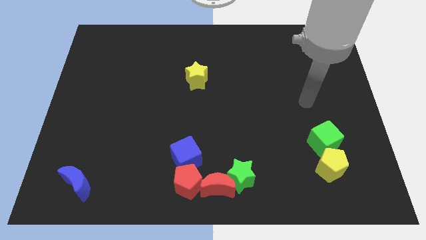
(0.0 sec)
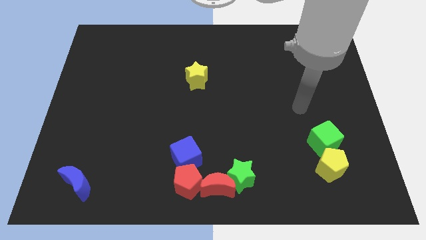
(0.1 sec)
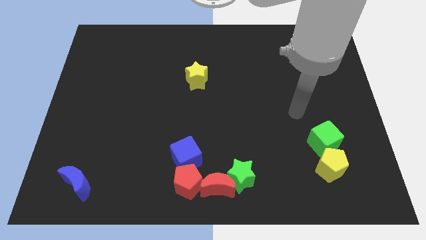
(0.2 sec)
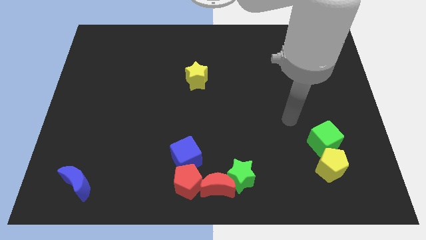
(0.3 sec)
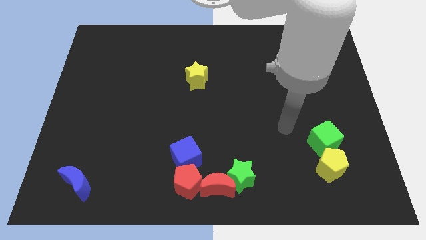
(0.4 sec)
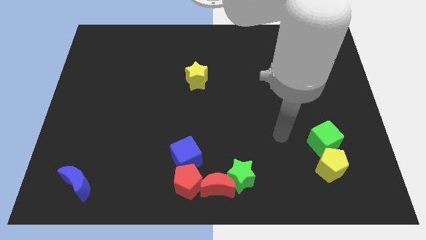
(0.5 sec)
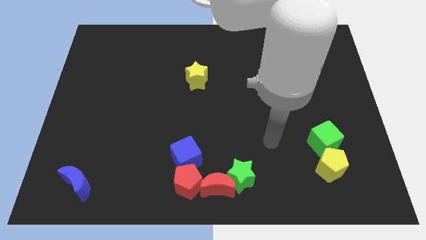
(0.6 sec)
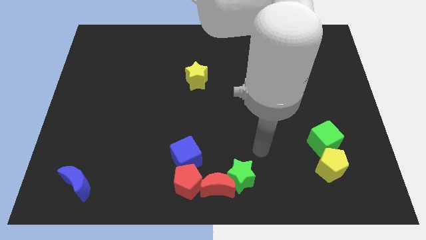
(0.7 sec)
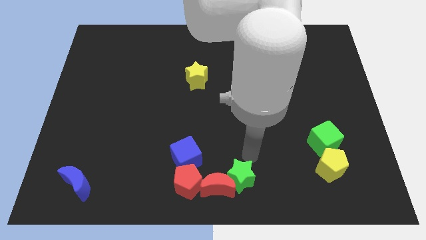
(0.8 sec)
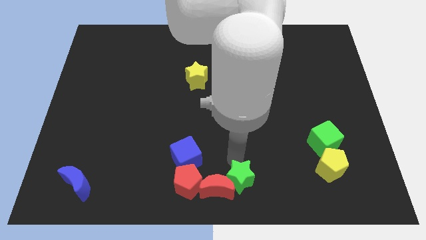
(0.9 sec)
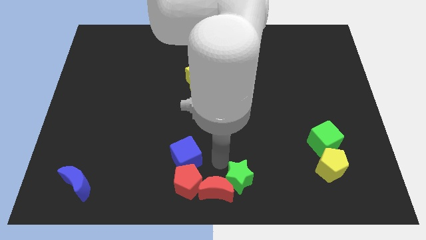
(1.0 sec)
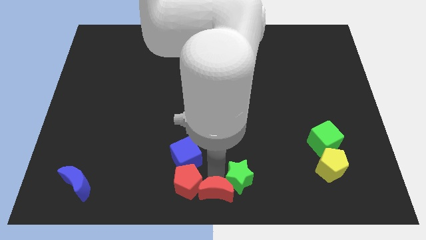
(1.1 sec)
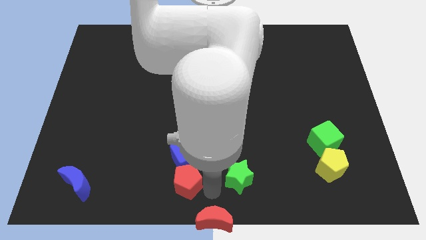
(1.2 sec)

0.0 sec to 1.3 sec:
separate the green star from the red moon

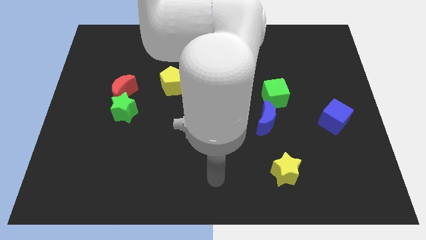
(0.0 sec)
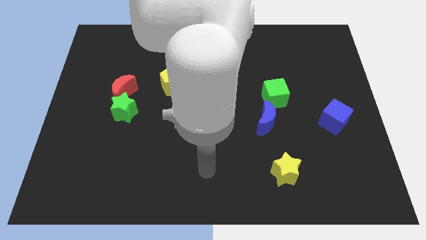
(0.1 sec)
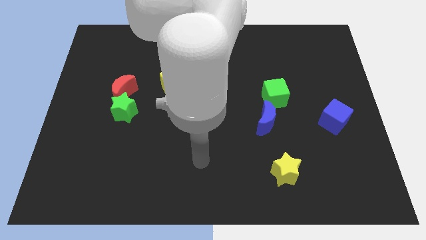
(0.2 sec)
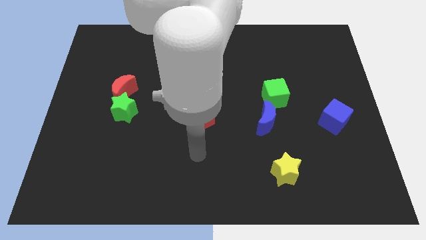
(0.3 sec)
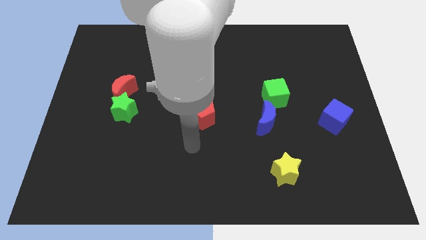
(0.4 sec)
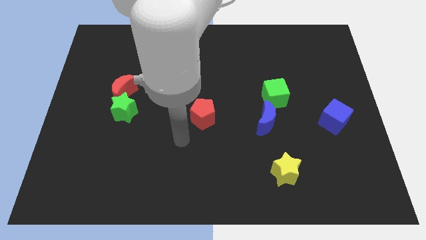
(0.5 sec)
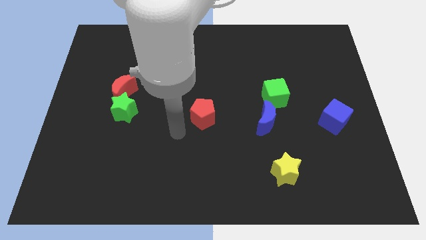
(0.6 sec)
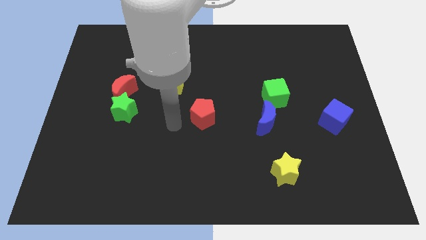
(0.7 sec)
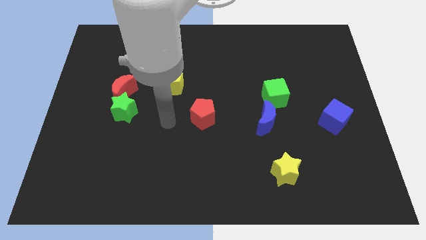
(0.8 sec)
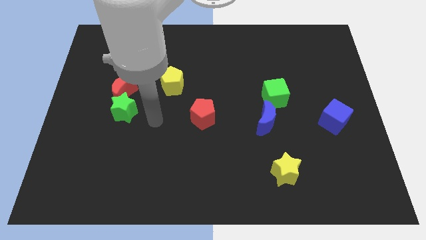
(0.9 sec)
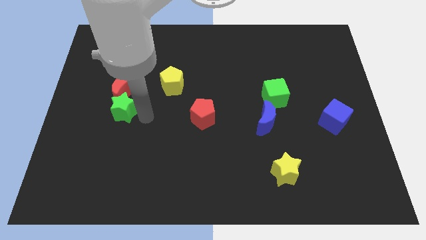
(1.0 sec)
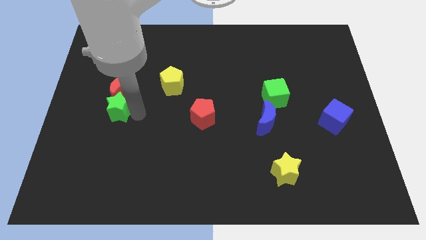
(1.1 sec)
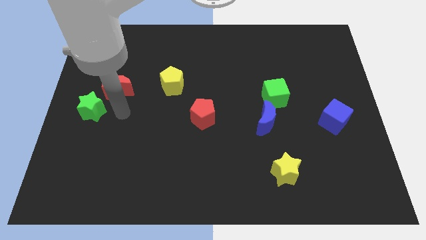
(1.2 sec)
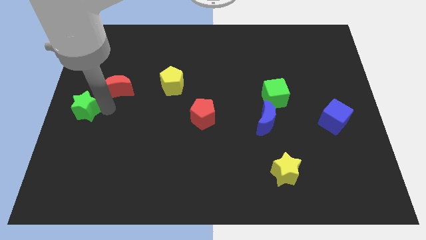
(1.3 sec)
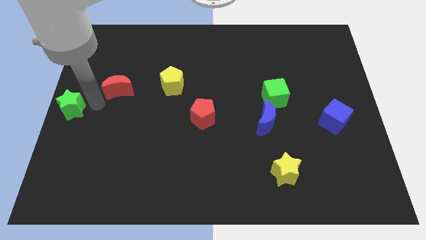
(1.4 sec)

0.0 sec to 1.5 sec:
pull the red moon apart from the green star

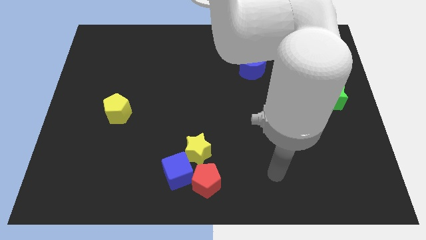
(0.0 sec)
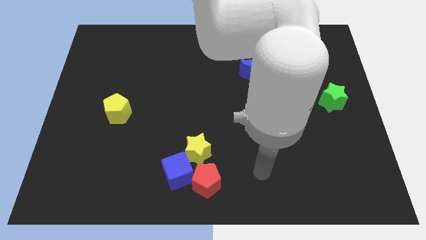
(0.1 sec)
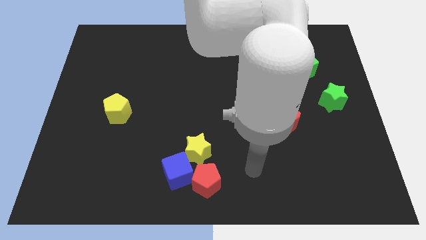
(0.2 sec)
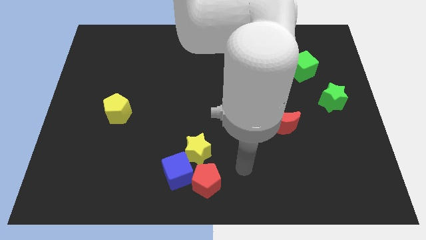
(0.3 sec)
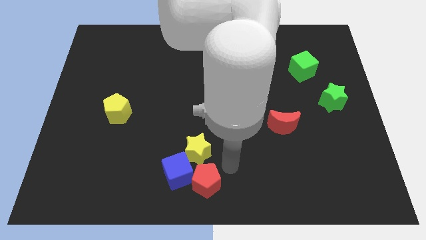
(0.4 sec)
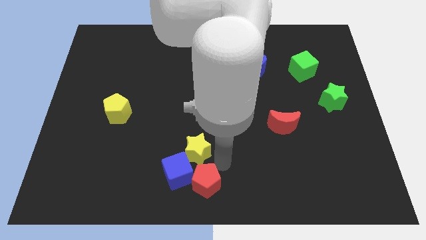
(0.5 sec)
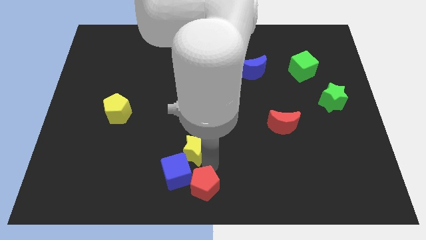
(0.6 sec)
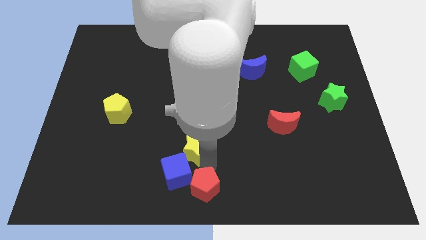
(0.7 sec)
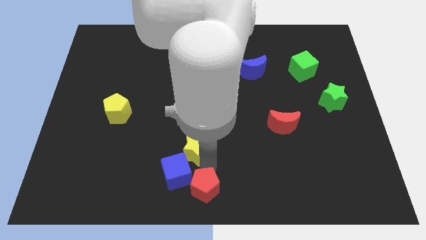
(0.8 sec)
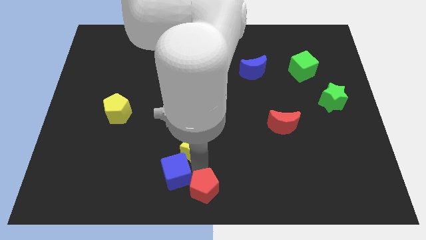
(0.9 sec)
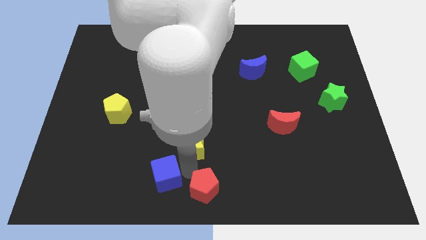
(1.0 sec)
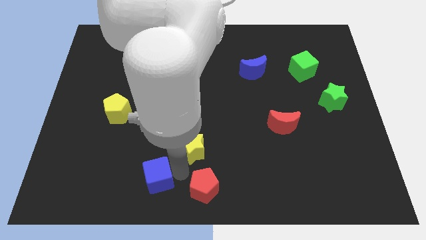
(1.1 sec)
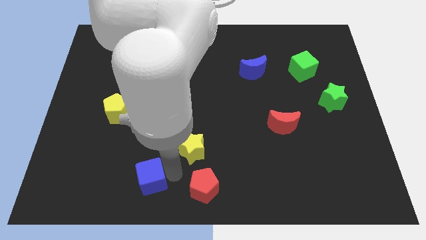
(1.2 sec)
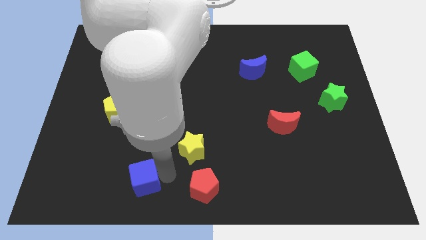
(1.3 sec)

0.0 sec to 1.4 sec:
move the blue cube away from the red pentagon and yellow star

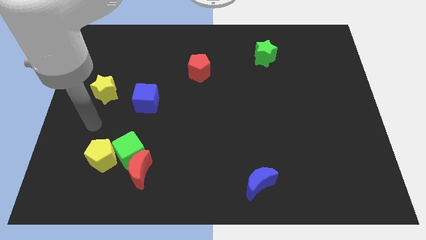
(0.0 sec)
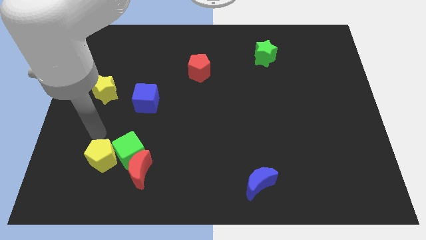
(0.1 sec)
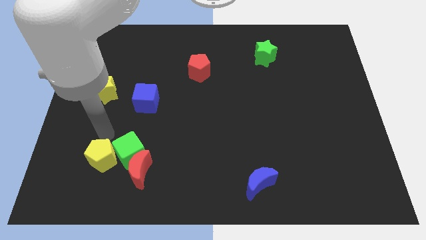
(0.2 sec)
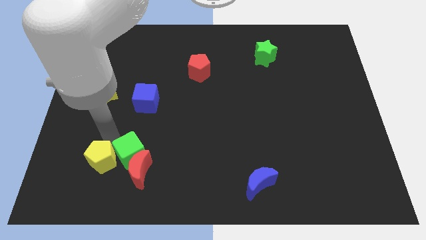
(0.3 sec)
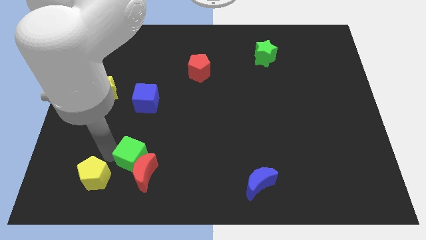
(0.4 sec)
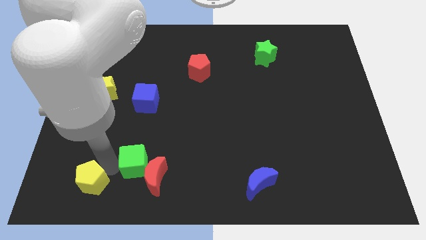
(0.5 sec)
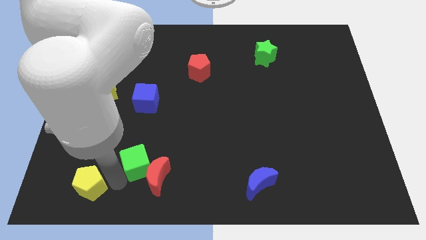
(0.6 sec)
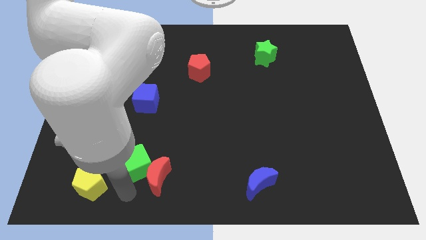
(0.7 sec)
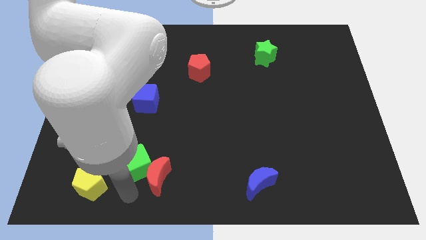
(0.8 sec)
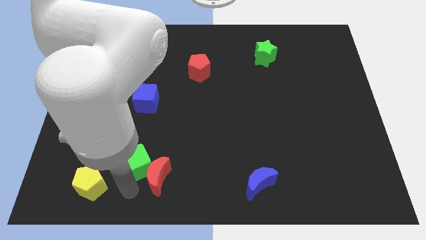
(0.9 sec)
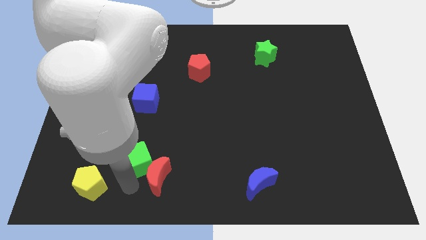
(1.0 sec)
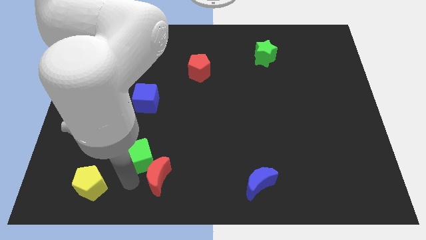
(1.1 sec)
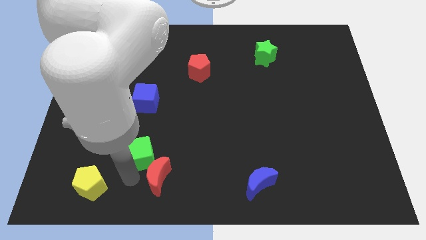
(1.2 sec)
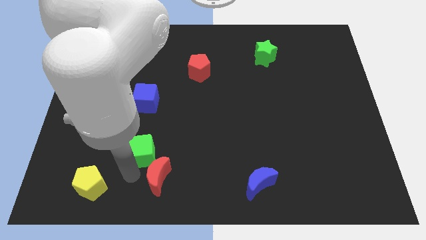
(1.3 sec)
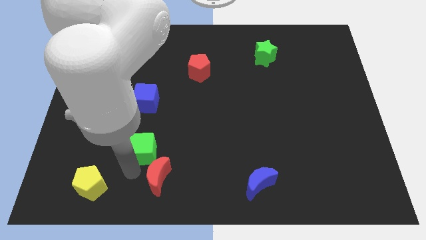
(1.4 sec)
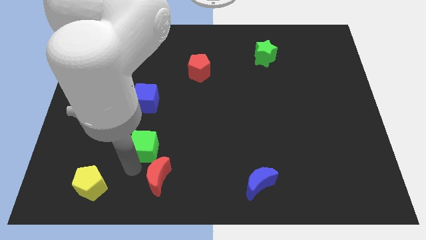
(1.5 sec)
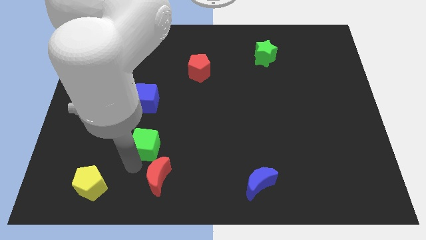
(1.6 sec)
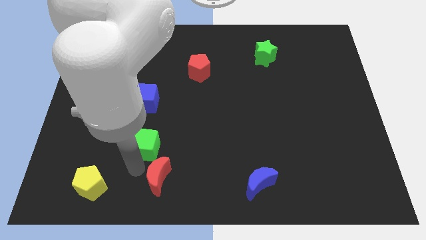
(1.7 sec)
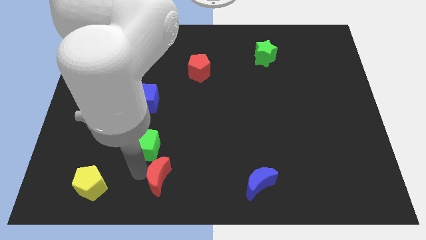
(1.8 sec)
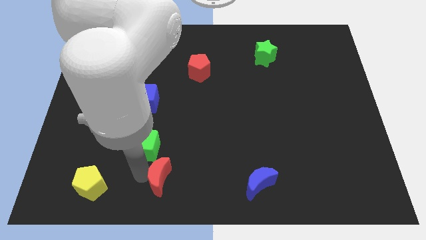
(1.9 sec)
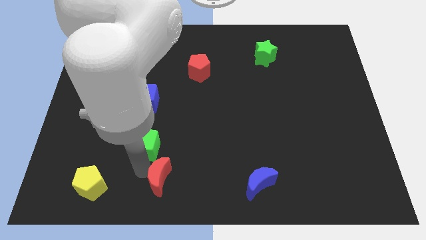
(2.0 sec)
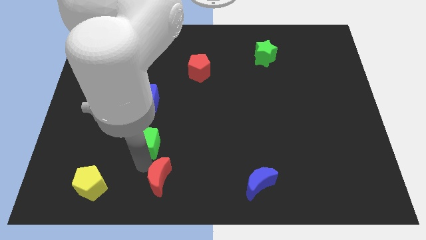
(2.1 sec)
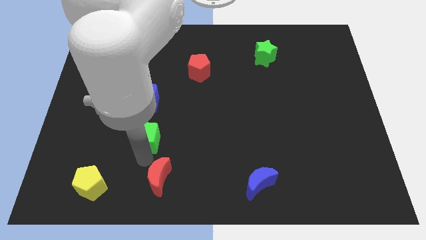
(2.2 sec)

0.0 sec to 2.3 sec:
move the green cube away from the red moon and yellow pentagon

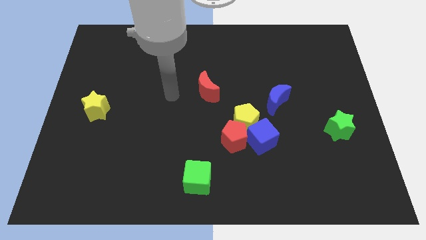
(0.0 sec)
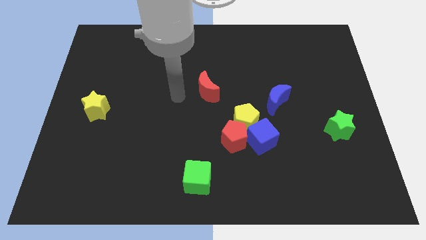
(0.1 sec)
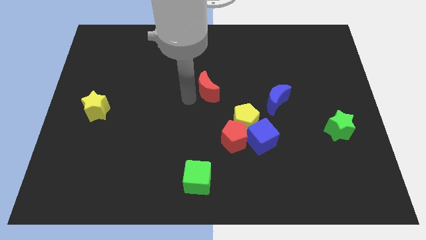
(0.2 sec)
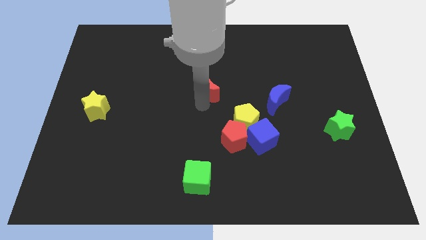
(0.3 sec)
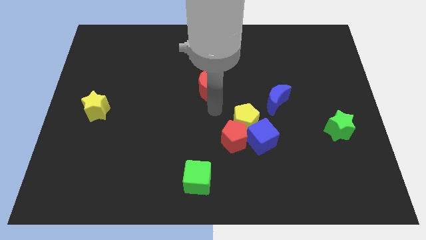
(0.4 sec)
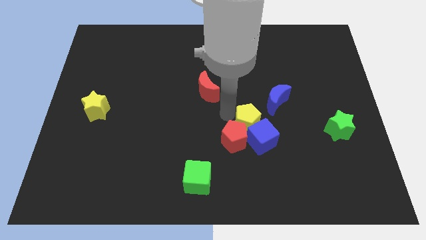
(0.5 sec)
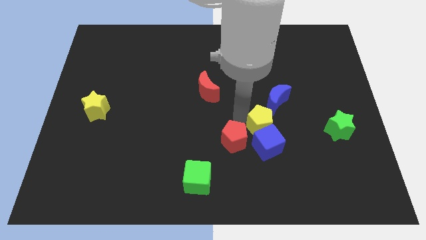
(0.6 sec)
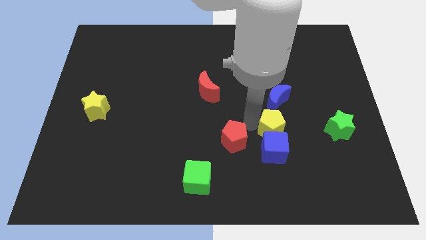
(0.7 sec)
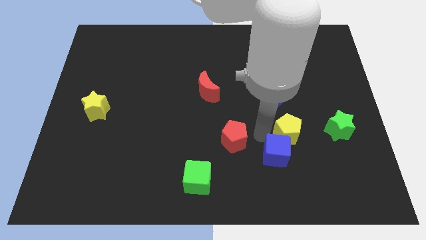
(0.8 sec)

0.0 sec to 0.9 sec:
pull the red pentagon apart from the yellow pentagon and blue cube

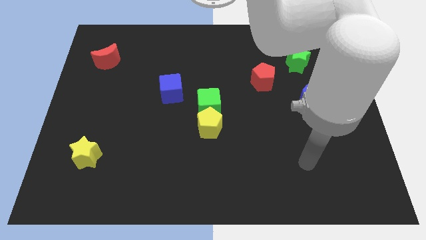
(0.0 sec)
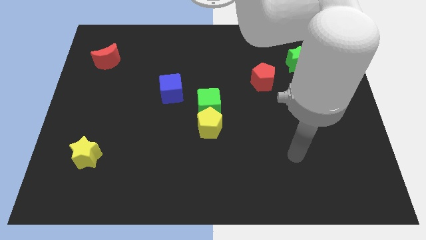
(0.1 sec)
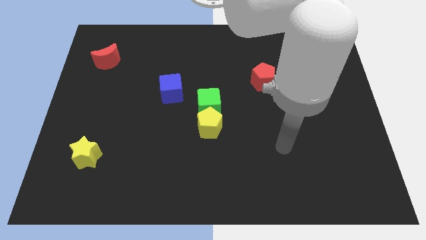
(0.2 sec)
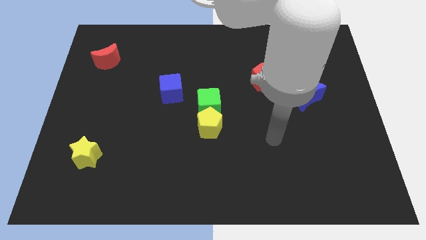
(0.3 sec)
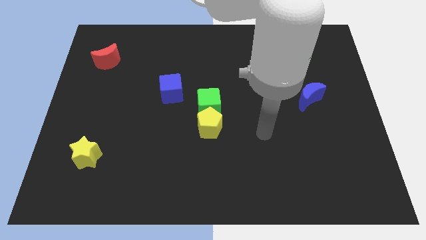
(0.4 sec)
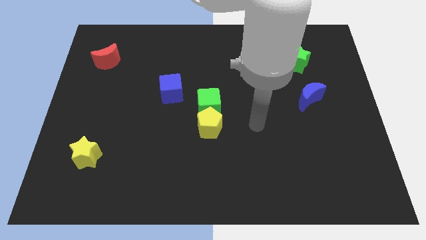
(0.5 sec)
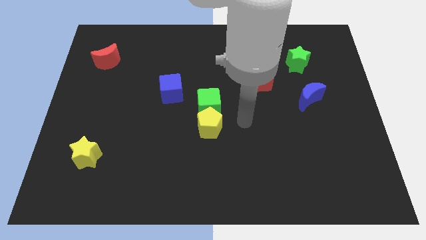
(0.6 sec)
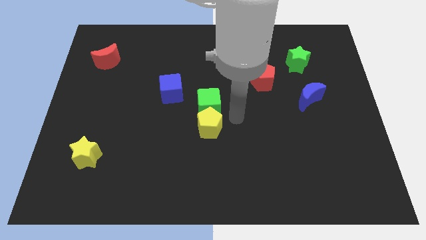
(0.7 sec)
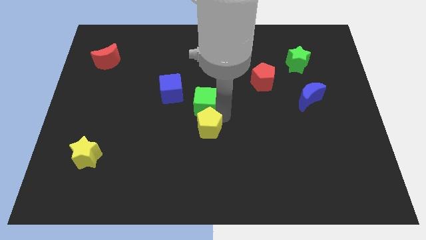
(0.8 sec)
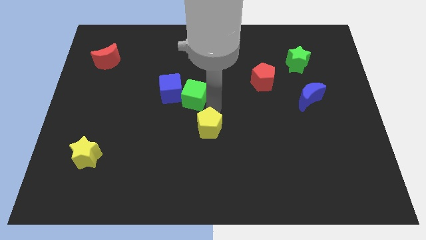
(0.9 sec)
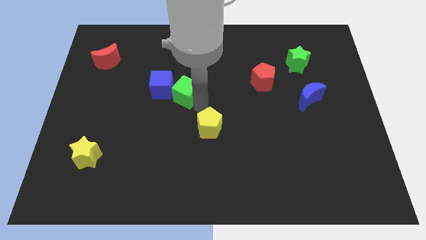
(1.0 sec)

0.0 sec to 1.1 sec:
separate the yellow pentagon from the green cube

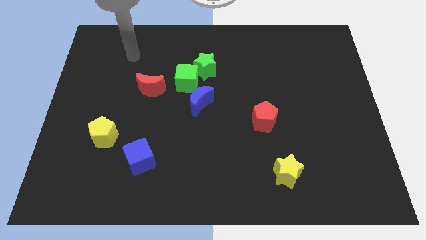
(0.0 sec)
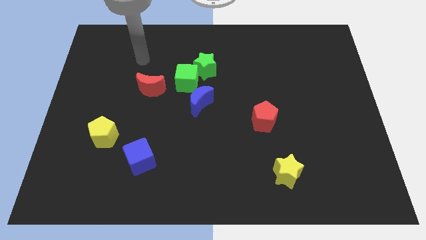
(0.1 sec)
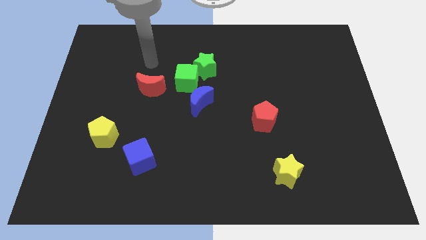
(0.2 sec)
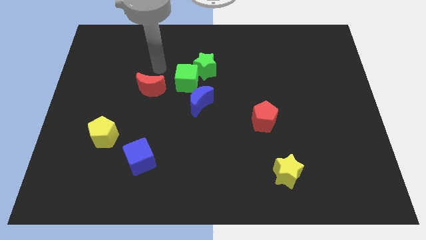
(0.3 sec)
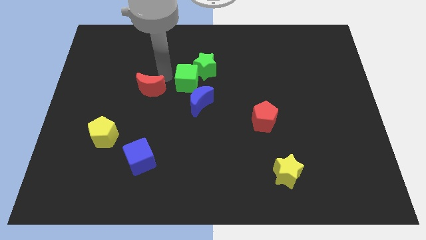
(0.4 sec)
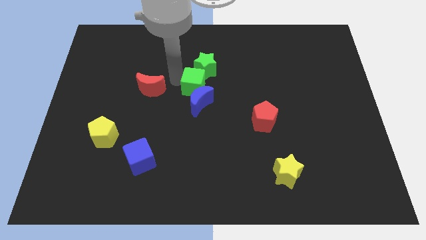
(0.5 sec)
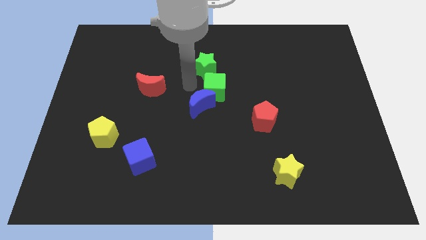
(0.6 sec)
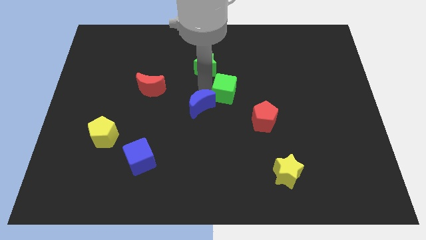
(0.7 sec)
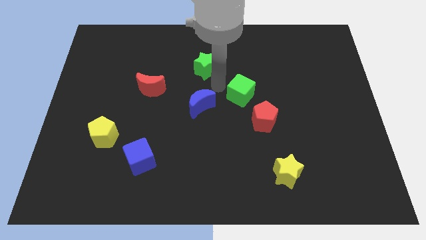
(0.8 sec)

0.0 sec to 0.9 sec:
move the green star away from the green cube
